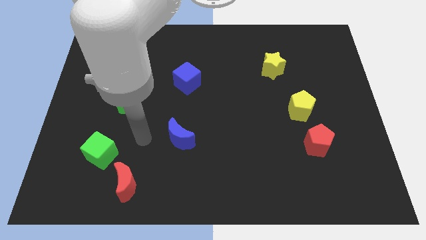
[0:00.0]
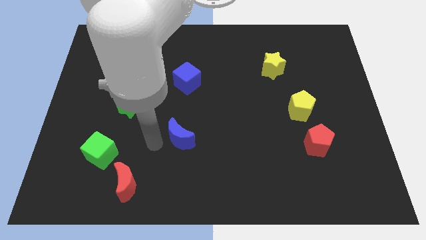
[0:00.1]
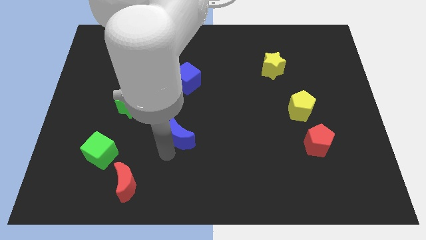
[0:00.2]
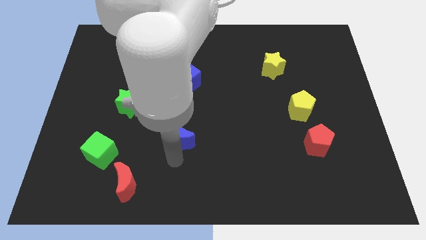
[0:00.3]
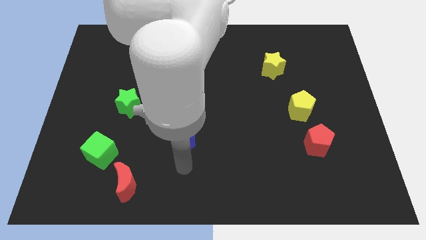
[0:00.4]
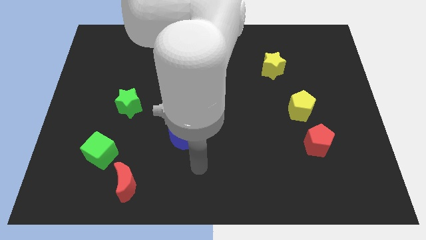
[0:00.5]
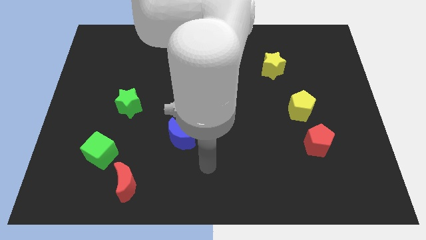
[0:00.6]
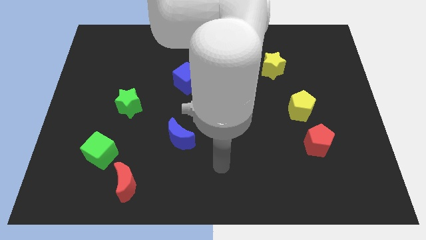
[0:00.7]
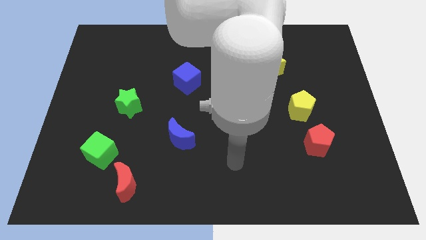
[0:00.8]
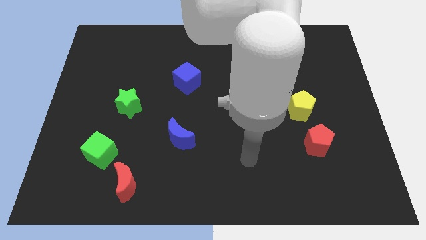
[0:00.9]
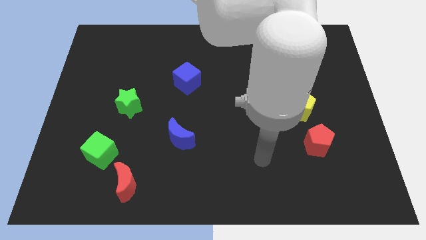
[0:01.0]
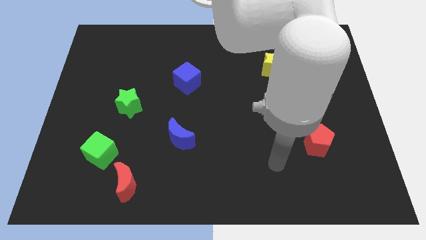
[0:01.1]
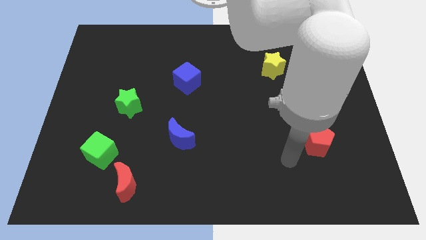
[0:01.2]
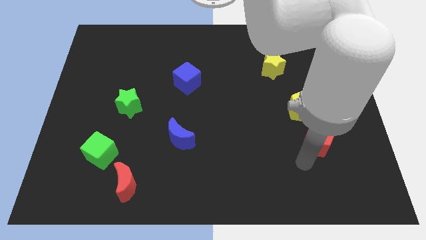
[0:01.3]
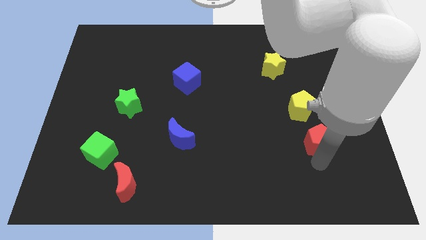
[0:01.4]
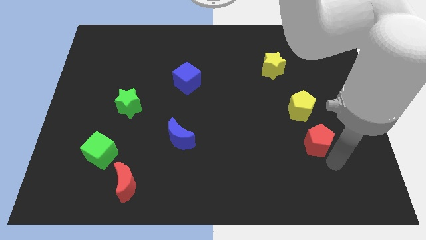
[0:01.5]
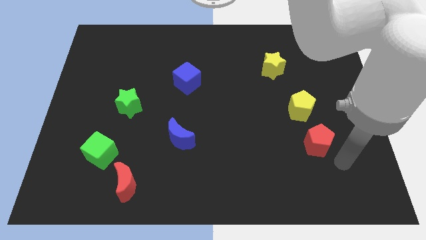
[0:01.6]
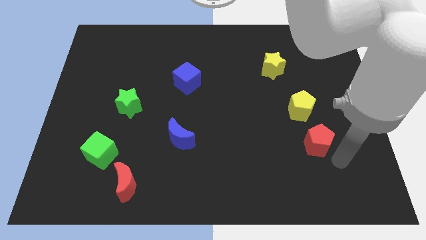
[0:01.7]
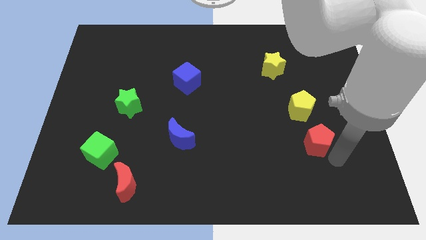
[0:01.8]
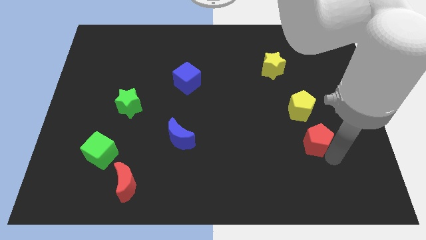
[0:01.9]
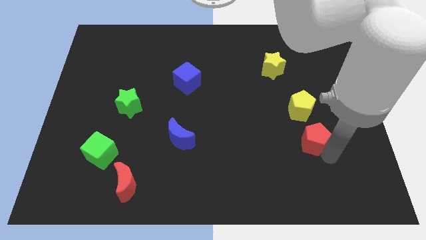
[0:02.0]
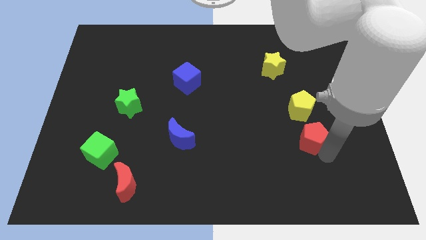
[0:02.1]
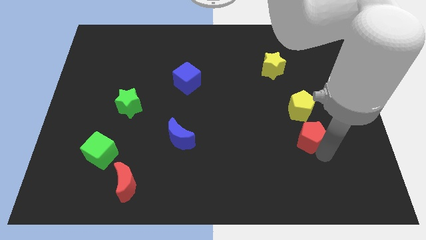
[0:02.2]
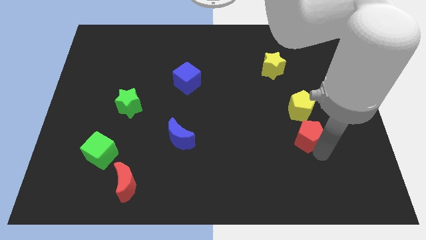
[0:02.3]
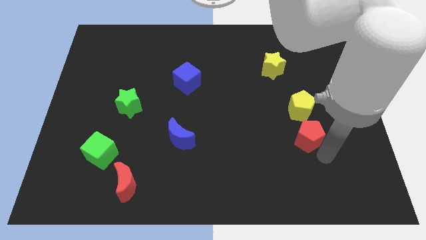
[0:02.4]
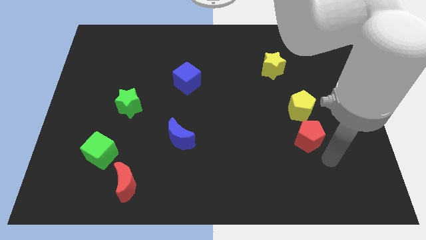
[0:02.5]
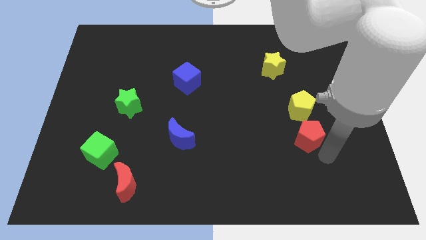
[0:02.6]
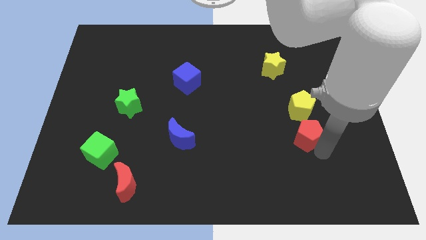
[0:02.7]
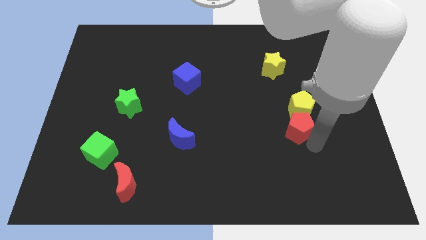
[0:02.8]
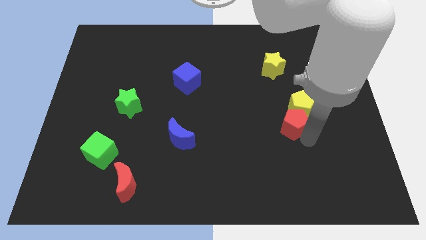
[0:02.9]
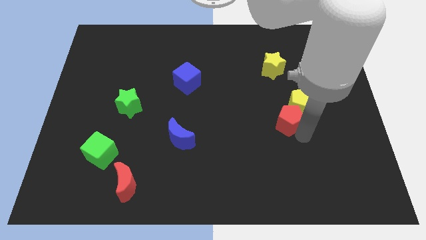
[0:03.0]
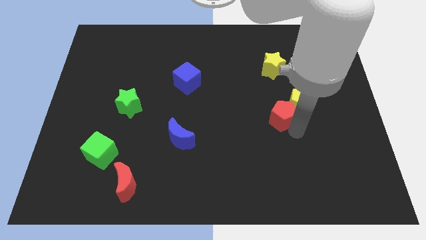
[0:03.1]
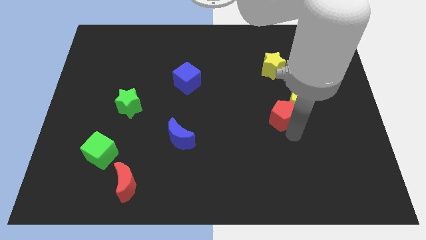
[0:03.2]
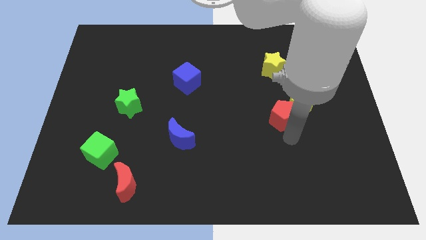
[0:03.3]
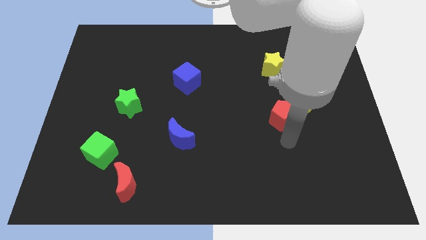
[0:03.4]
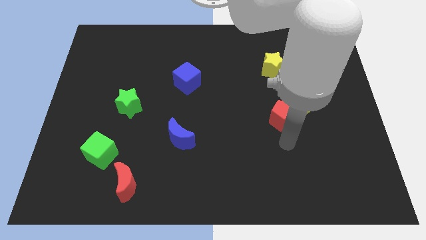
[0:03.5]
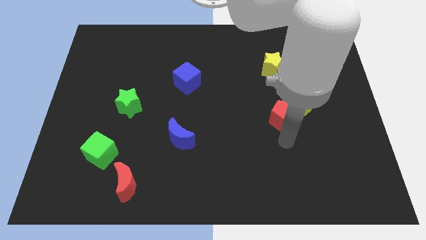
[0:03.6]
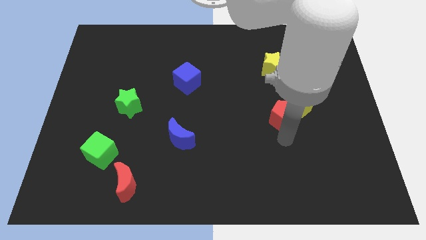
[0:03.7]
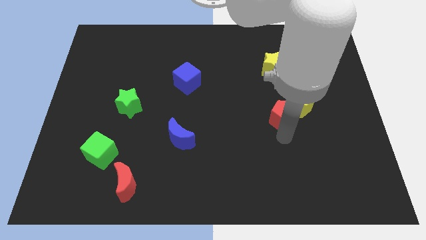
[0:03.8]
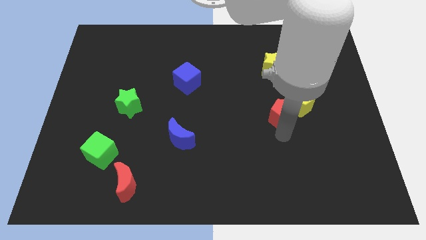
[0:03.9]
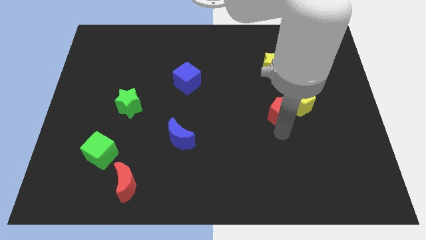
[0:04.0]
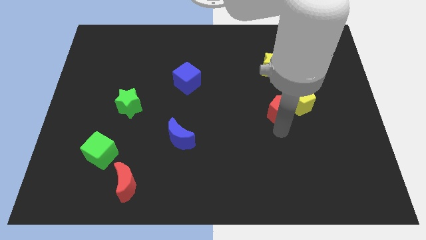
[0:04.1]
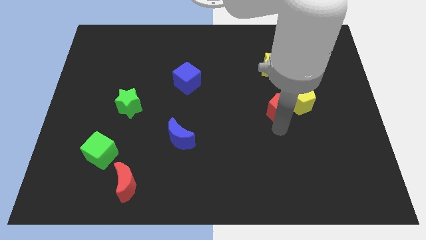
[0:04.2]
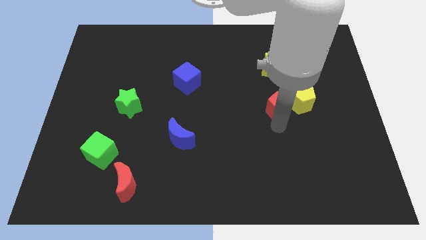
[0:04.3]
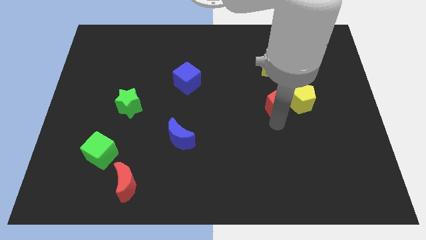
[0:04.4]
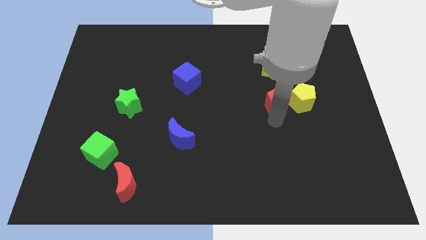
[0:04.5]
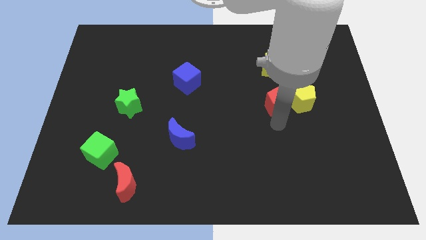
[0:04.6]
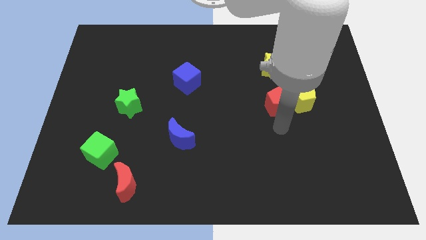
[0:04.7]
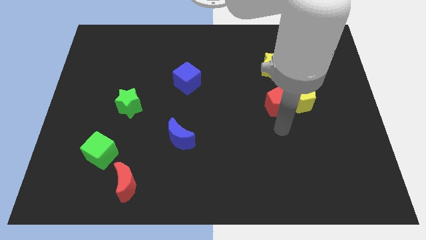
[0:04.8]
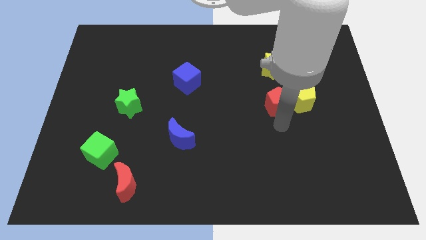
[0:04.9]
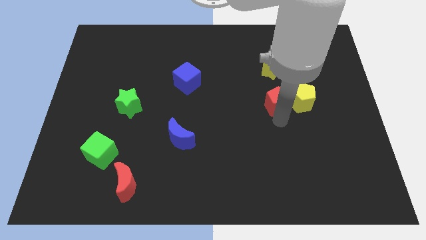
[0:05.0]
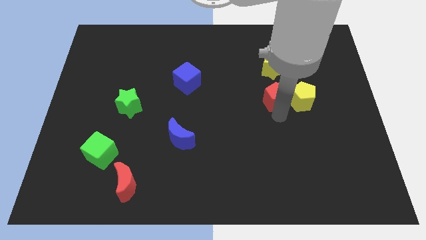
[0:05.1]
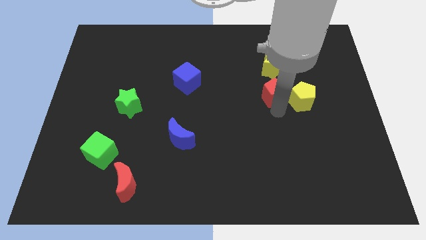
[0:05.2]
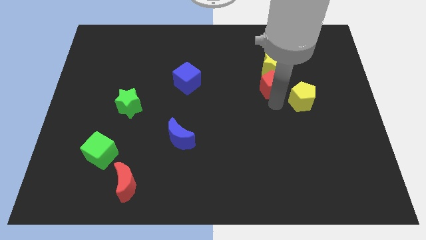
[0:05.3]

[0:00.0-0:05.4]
slide the red pentagon next to the yellow star

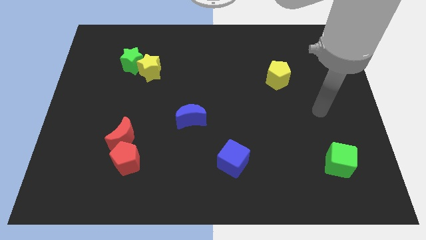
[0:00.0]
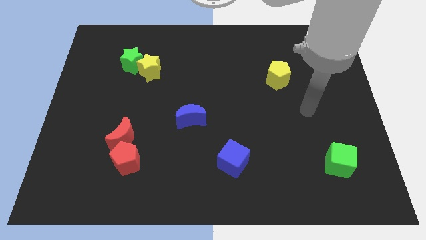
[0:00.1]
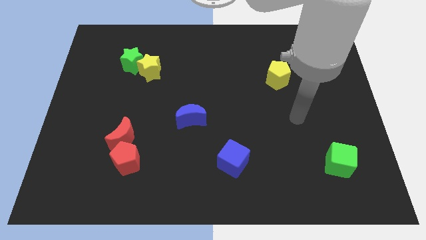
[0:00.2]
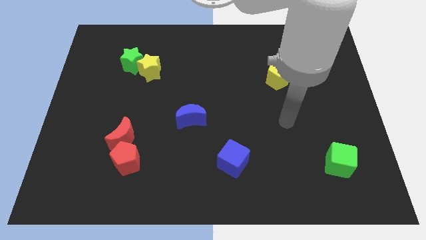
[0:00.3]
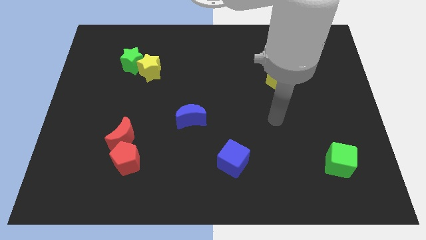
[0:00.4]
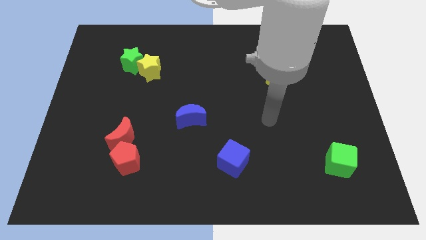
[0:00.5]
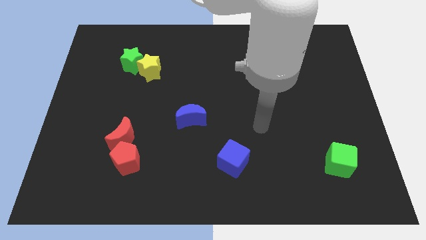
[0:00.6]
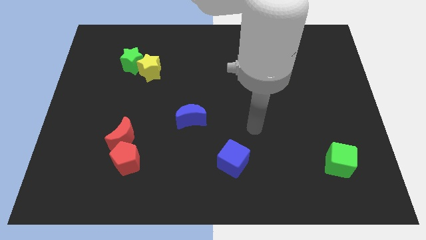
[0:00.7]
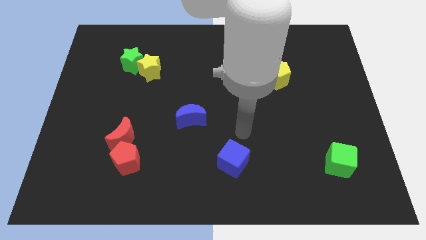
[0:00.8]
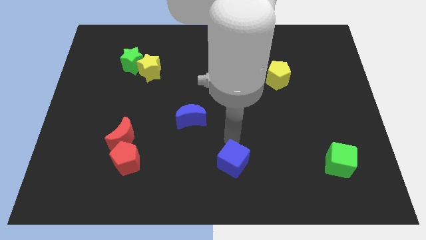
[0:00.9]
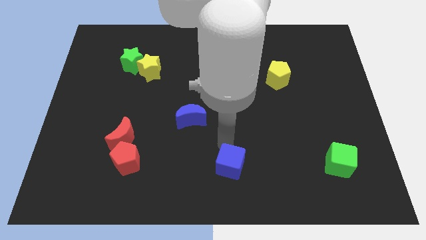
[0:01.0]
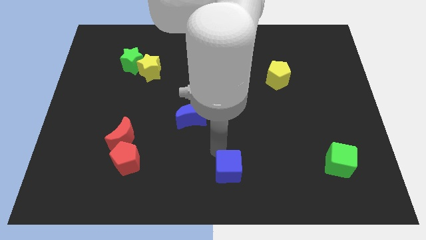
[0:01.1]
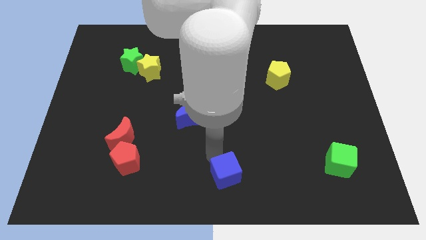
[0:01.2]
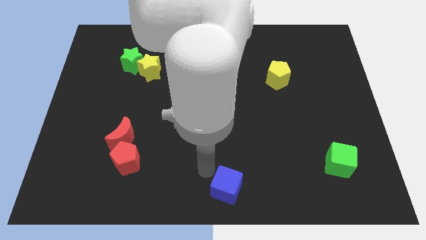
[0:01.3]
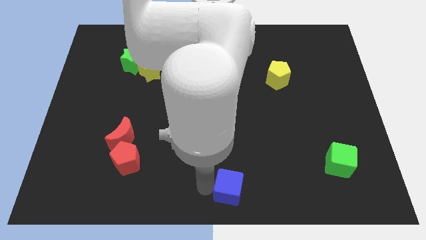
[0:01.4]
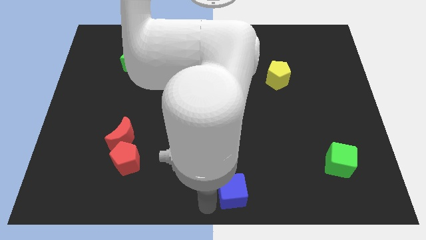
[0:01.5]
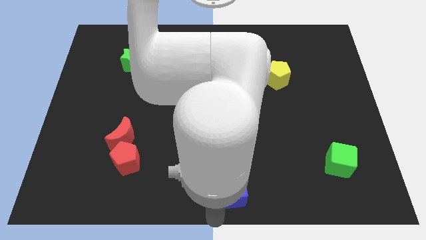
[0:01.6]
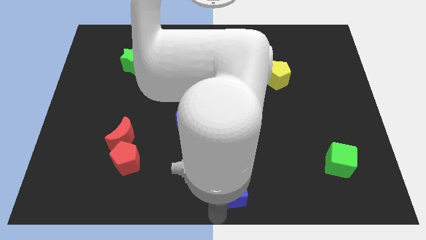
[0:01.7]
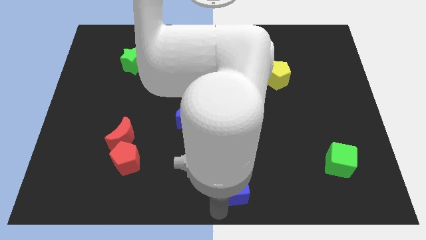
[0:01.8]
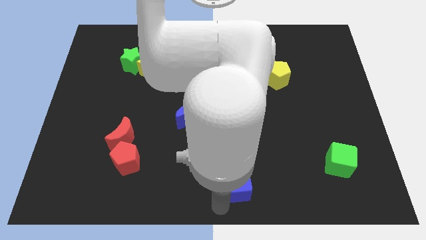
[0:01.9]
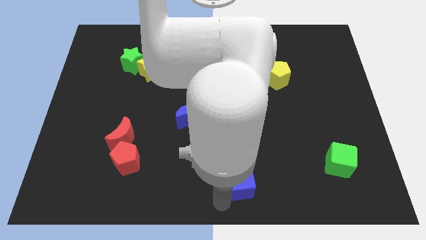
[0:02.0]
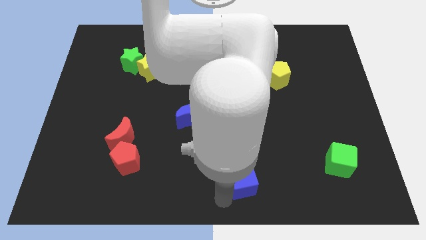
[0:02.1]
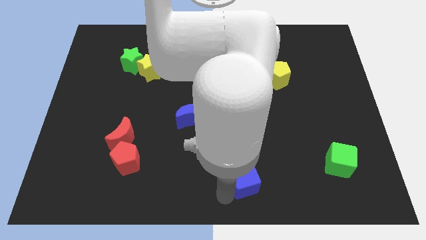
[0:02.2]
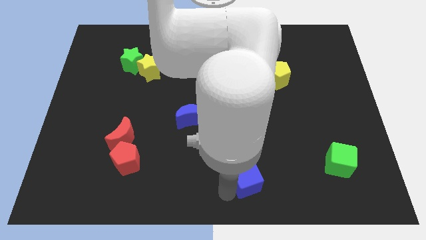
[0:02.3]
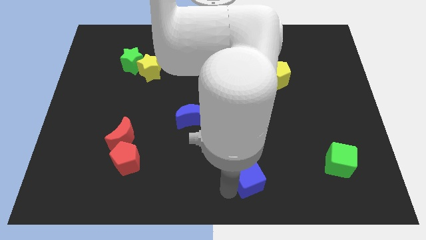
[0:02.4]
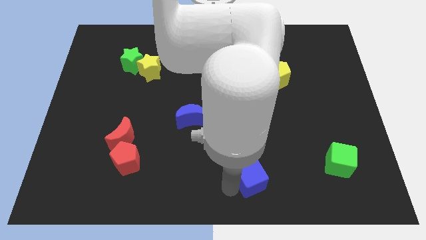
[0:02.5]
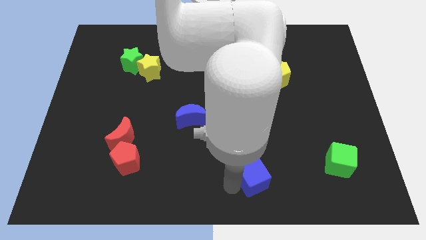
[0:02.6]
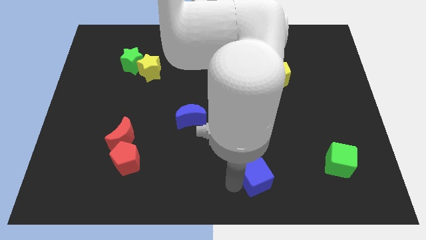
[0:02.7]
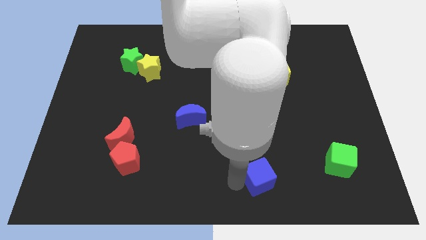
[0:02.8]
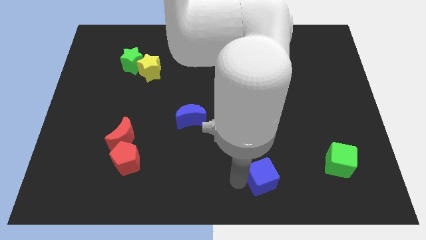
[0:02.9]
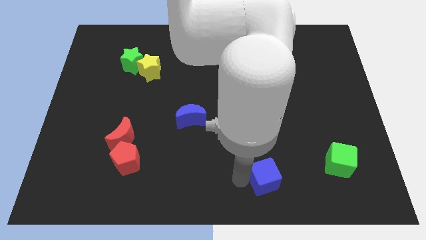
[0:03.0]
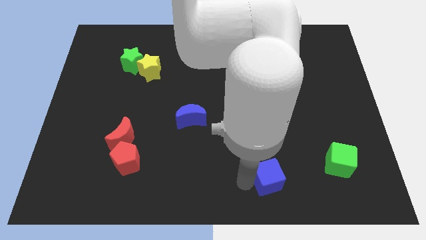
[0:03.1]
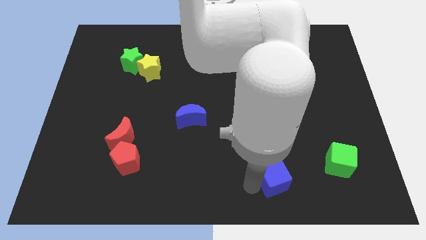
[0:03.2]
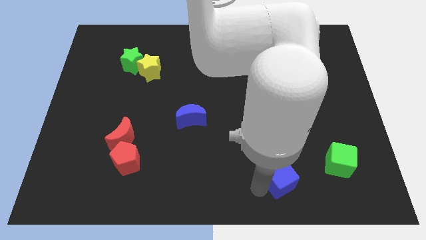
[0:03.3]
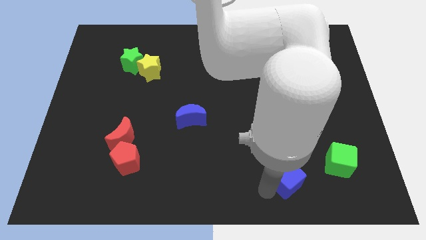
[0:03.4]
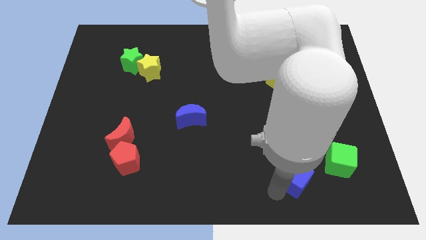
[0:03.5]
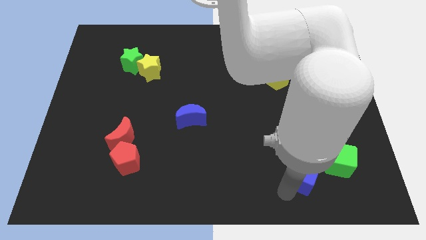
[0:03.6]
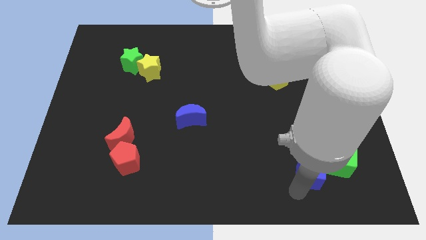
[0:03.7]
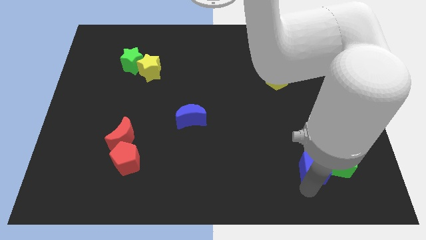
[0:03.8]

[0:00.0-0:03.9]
push the blue cube next to the green cube
